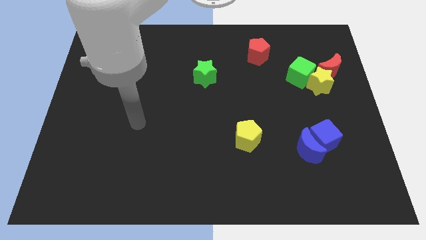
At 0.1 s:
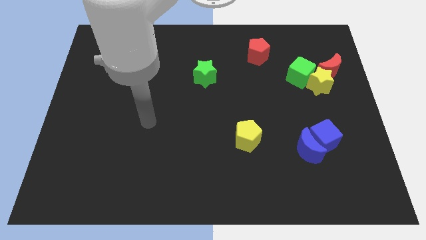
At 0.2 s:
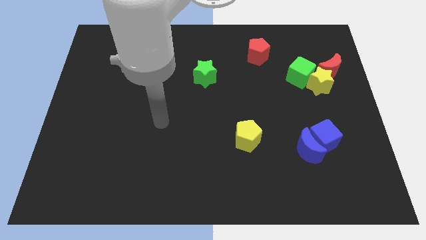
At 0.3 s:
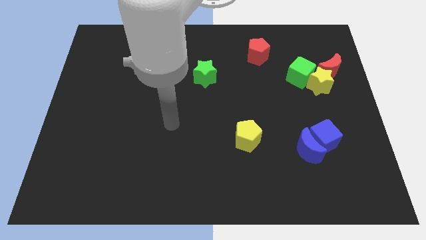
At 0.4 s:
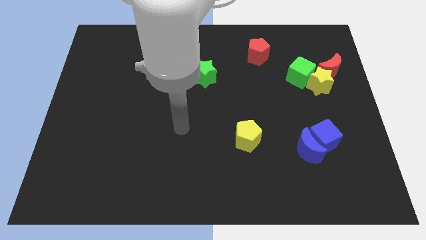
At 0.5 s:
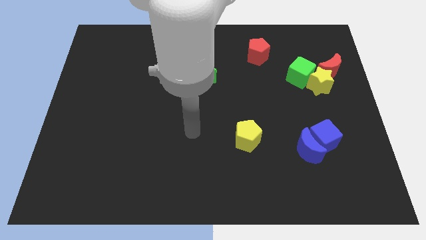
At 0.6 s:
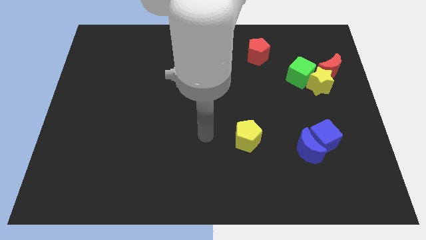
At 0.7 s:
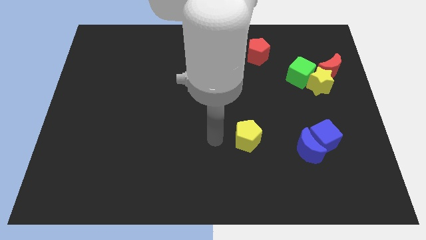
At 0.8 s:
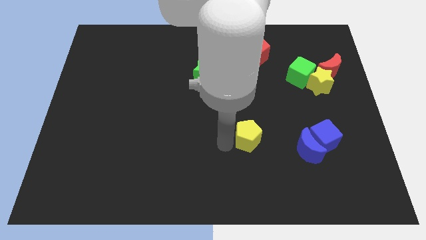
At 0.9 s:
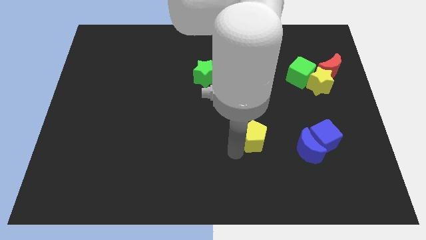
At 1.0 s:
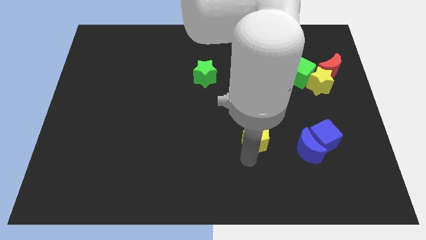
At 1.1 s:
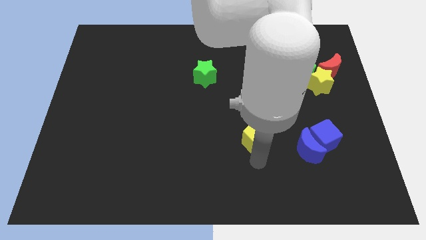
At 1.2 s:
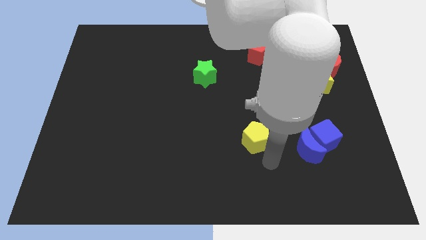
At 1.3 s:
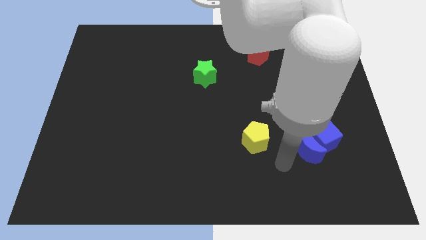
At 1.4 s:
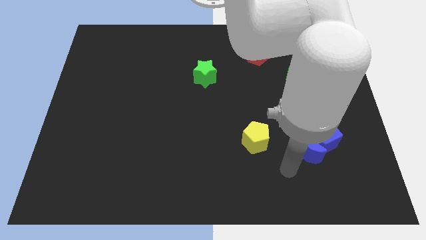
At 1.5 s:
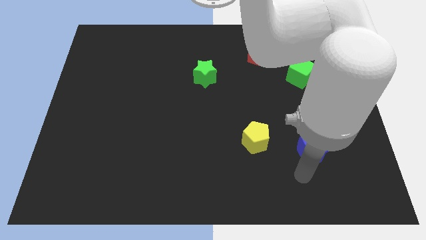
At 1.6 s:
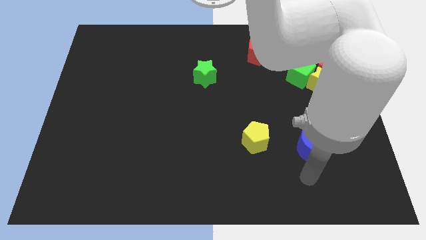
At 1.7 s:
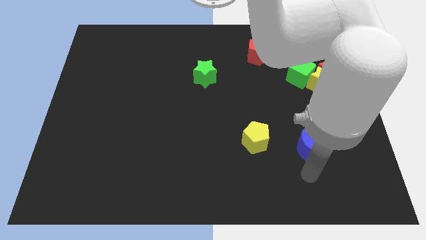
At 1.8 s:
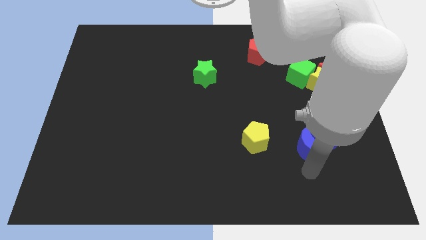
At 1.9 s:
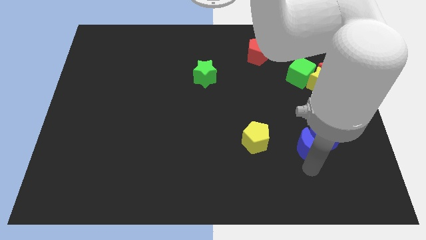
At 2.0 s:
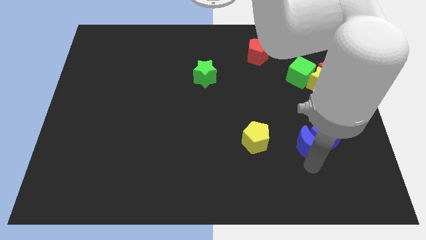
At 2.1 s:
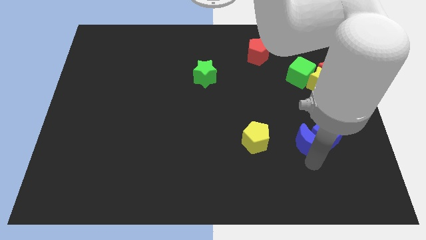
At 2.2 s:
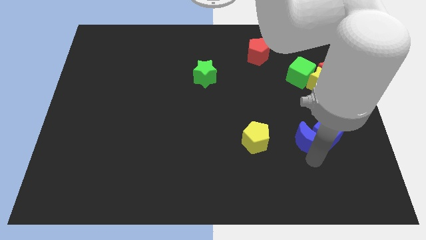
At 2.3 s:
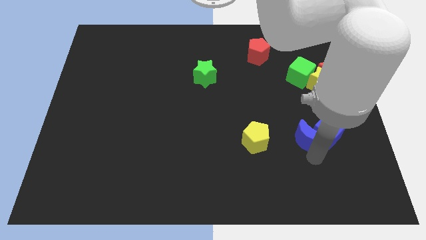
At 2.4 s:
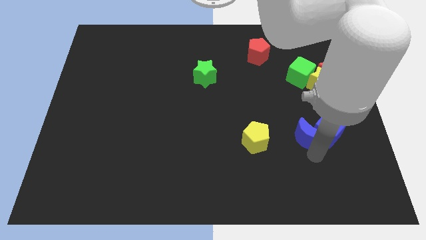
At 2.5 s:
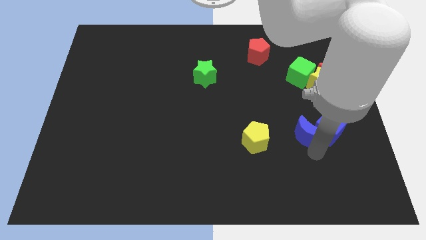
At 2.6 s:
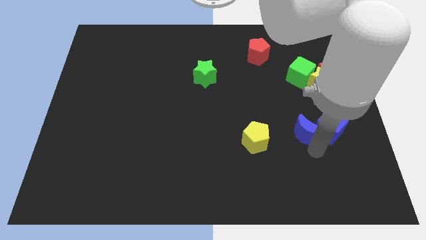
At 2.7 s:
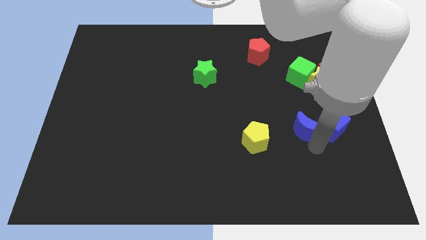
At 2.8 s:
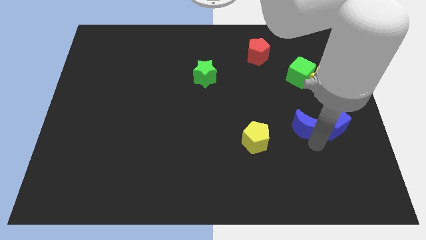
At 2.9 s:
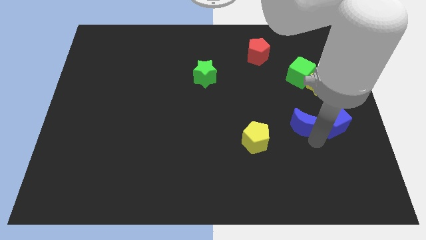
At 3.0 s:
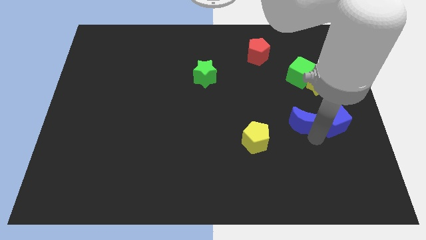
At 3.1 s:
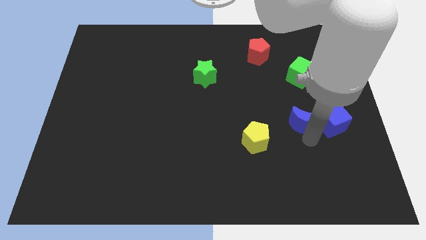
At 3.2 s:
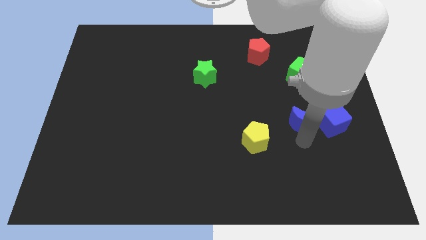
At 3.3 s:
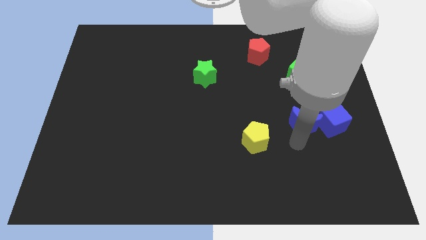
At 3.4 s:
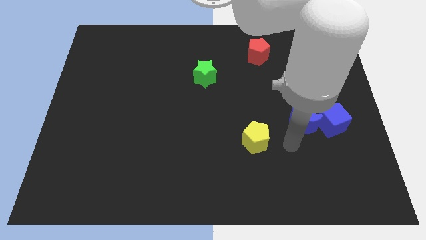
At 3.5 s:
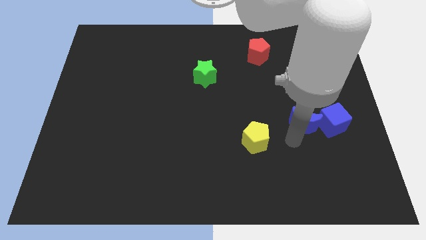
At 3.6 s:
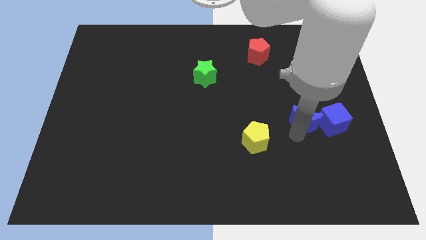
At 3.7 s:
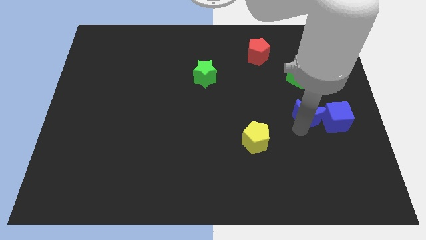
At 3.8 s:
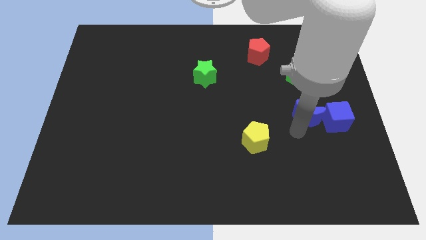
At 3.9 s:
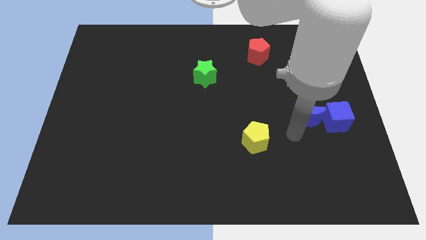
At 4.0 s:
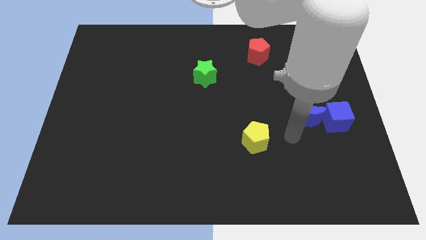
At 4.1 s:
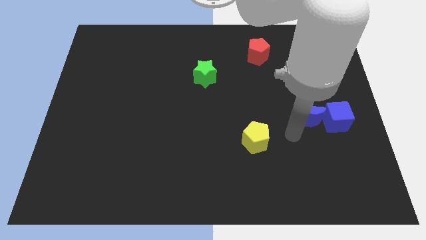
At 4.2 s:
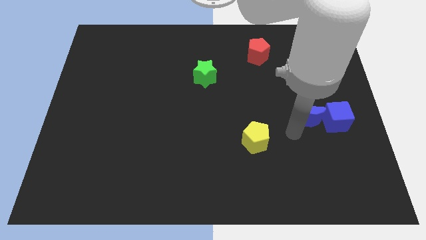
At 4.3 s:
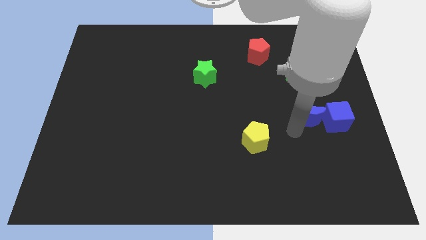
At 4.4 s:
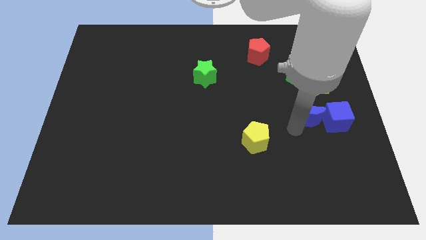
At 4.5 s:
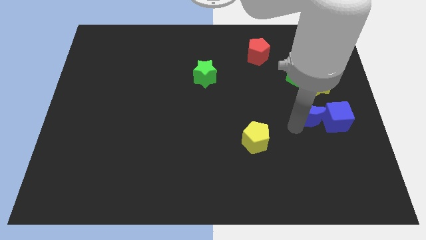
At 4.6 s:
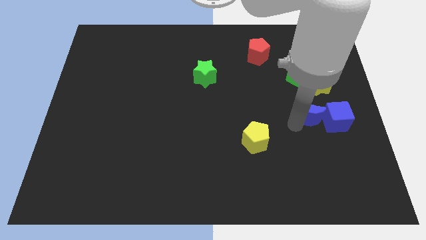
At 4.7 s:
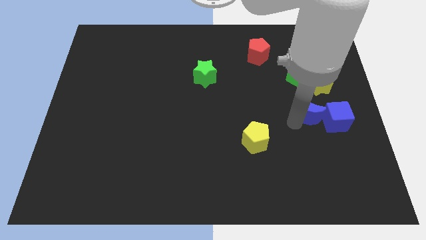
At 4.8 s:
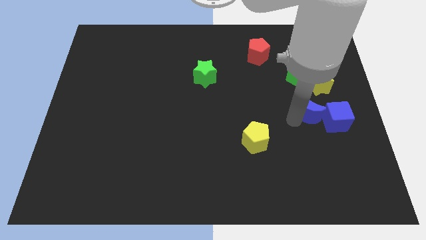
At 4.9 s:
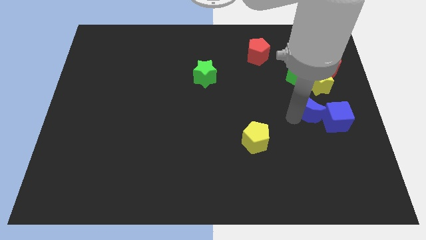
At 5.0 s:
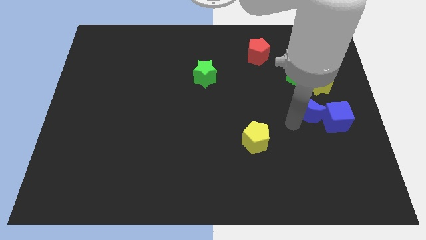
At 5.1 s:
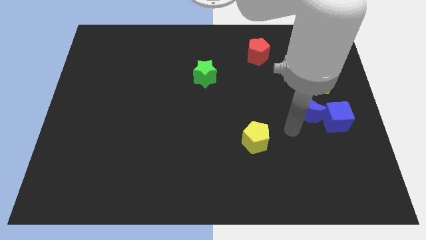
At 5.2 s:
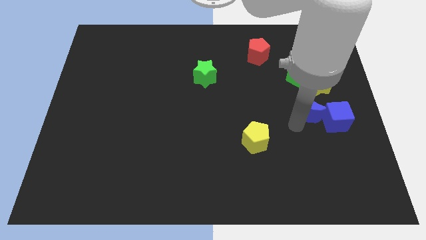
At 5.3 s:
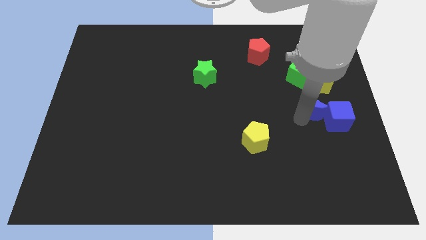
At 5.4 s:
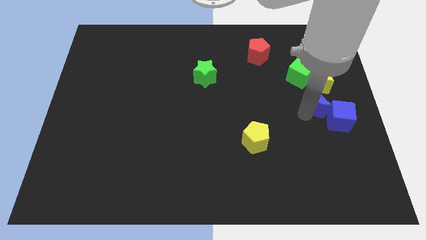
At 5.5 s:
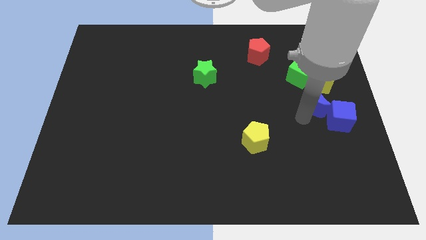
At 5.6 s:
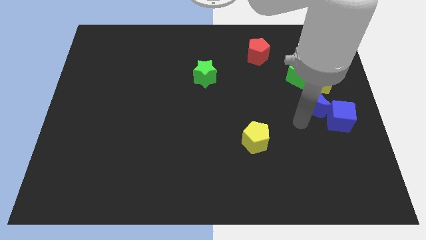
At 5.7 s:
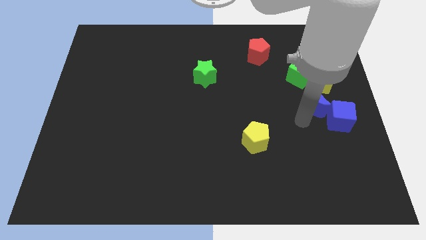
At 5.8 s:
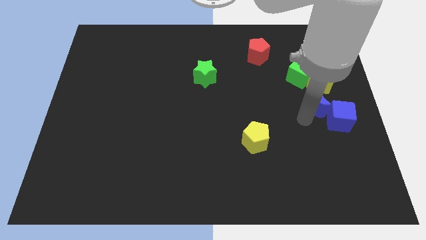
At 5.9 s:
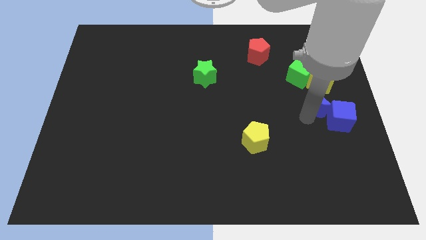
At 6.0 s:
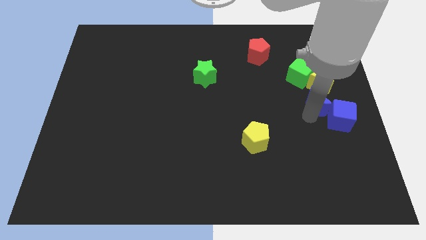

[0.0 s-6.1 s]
put the blue moon to the bottom right side of the green cube

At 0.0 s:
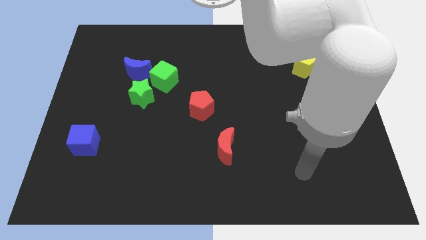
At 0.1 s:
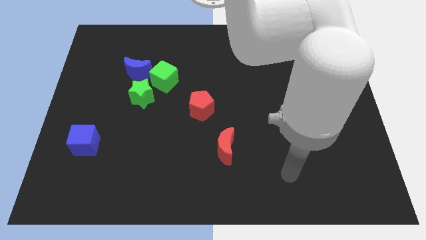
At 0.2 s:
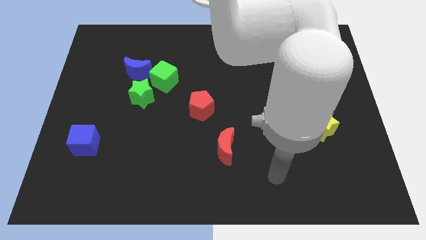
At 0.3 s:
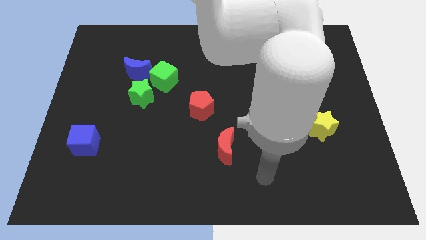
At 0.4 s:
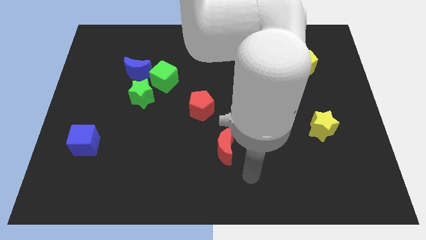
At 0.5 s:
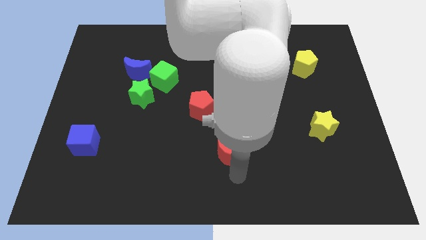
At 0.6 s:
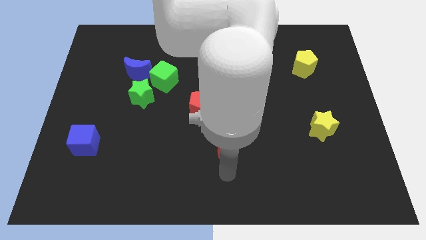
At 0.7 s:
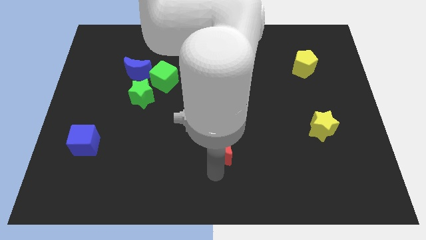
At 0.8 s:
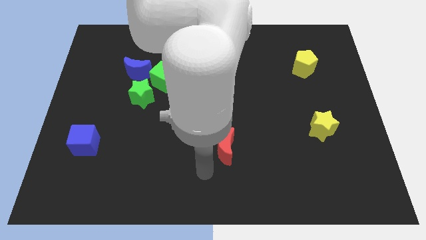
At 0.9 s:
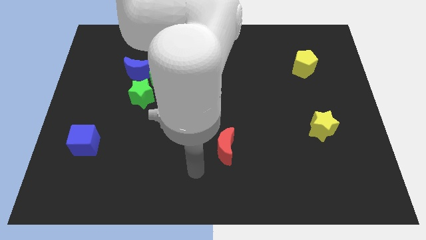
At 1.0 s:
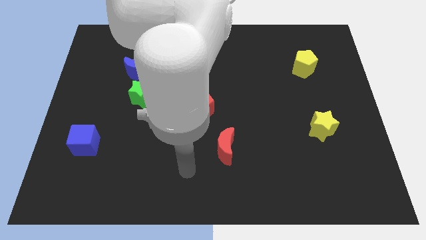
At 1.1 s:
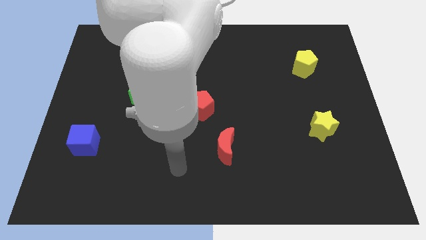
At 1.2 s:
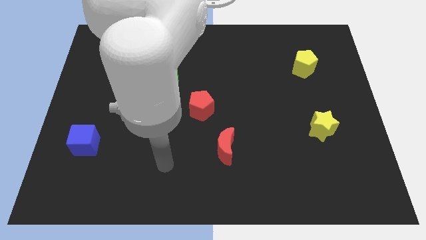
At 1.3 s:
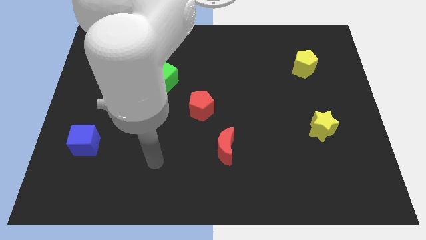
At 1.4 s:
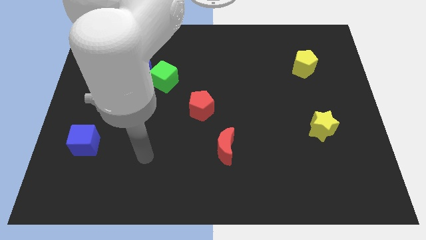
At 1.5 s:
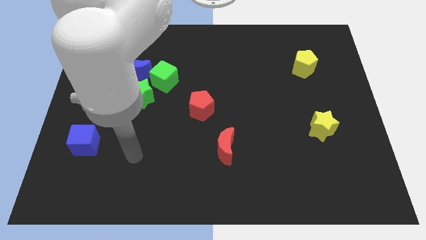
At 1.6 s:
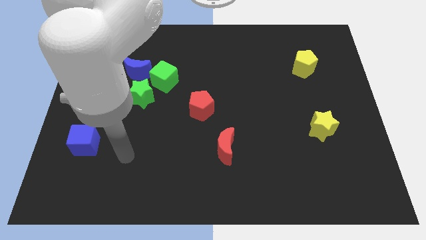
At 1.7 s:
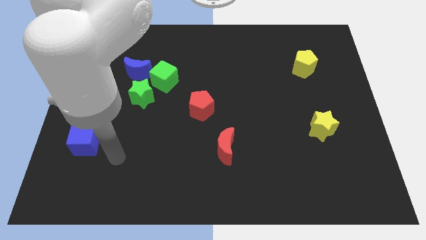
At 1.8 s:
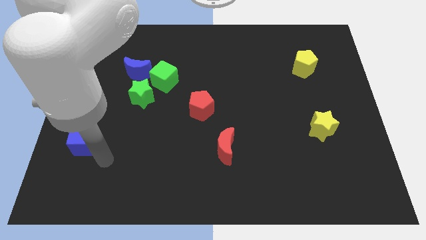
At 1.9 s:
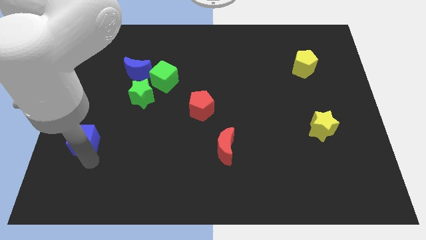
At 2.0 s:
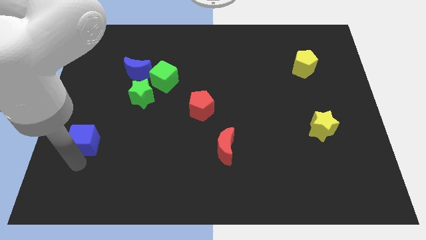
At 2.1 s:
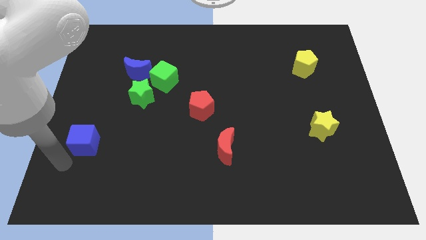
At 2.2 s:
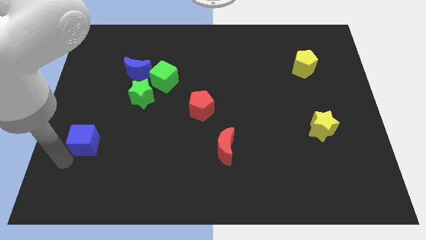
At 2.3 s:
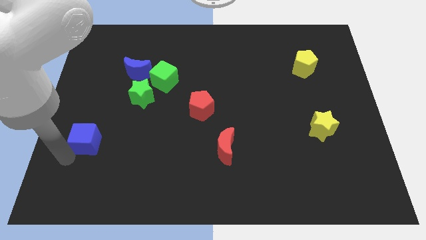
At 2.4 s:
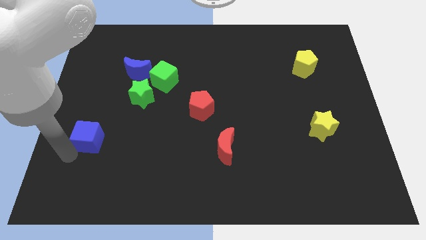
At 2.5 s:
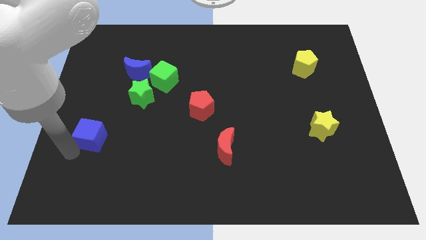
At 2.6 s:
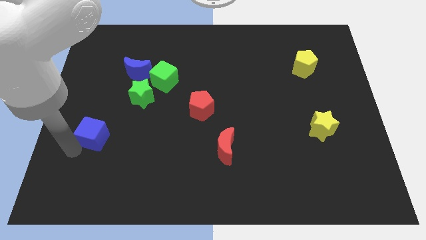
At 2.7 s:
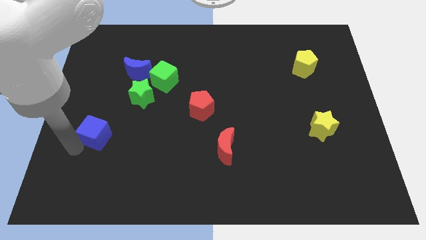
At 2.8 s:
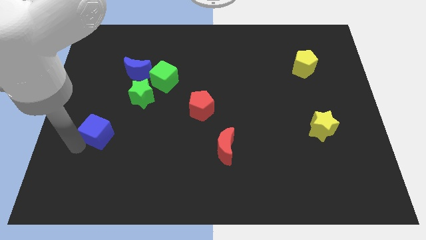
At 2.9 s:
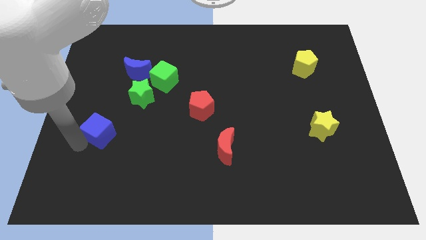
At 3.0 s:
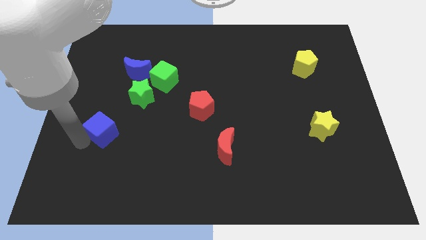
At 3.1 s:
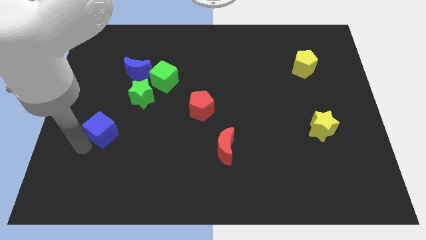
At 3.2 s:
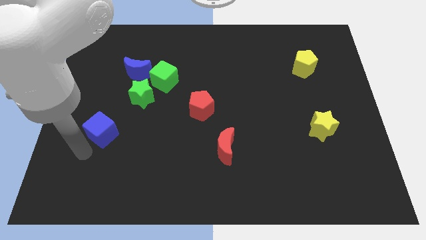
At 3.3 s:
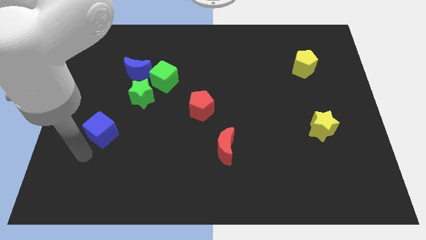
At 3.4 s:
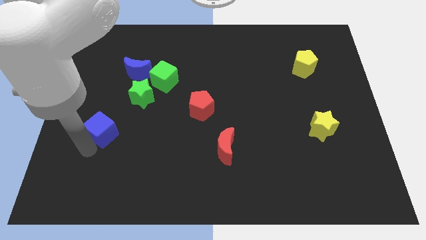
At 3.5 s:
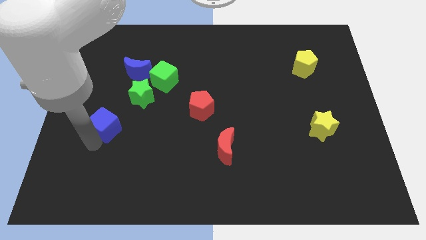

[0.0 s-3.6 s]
move the blue cube to the bottom left of the green star
